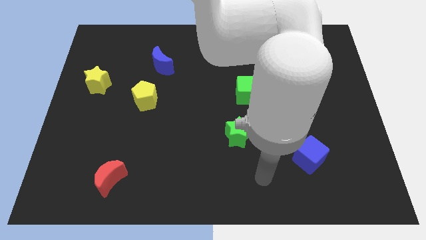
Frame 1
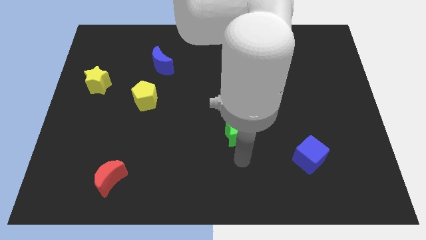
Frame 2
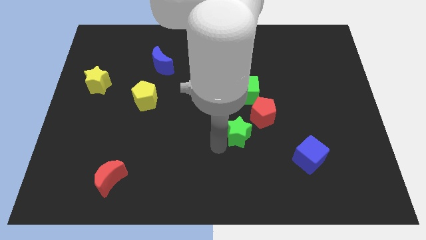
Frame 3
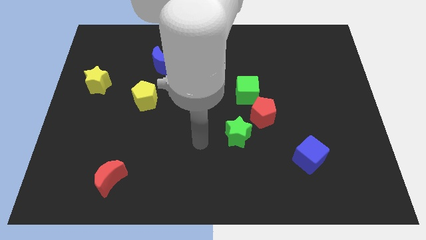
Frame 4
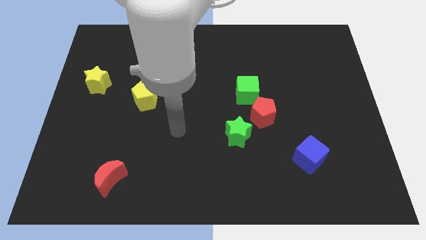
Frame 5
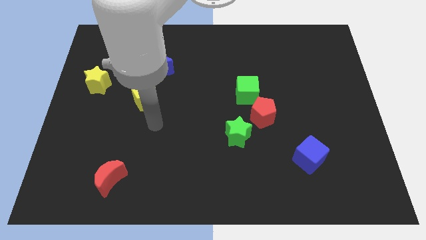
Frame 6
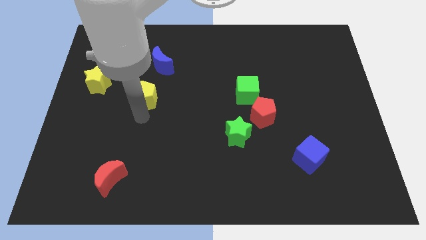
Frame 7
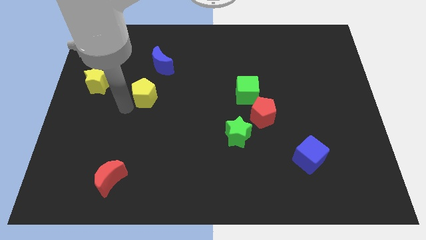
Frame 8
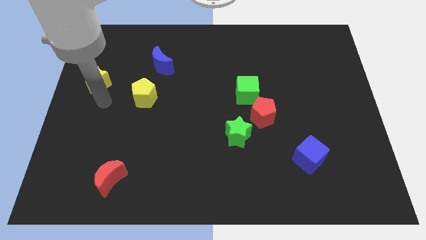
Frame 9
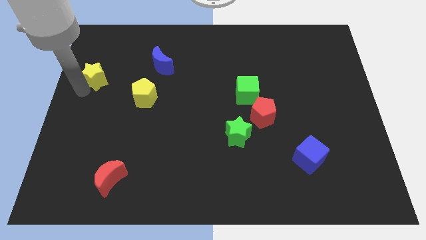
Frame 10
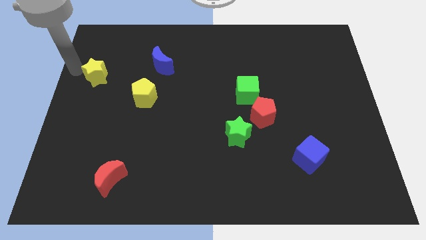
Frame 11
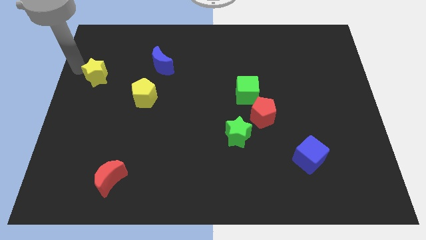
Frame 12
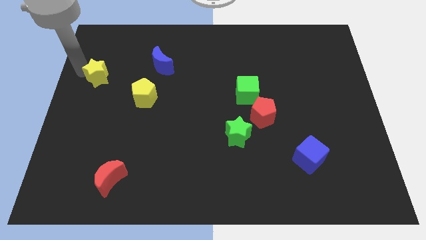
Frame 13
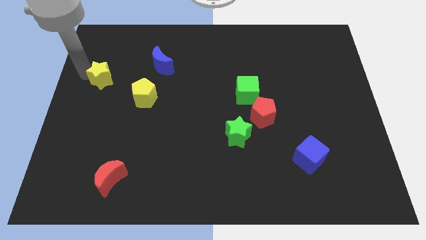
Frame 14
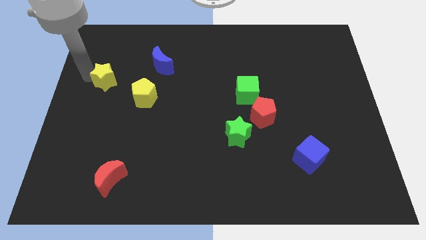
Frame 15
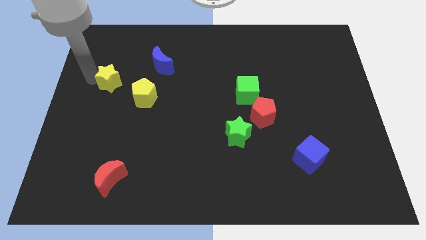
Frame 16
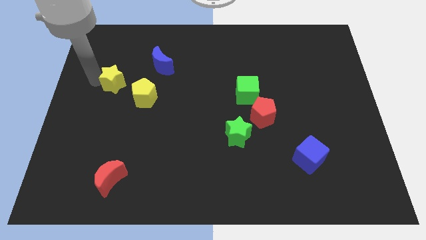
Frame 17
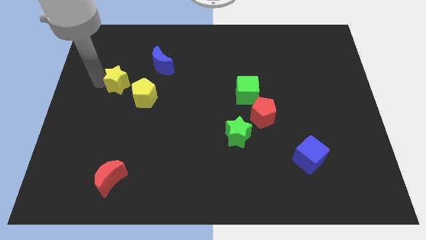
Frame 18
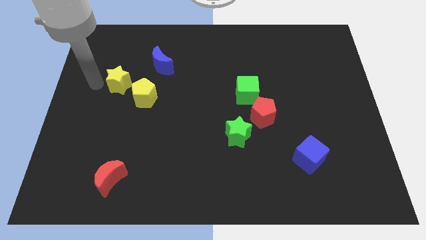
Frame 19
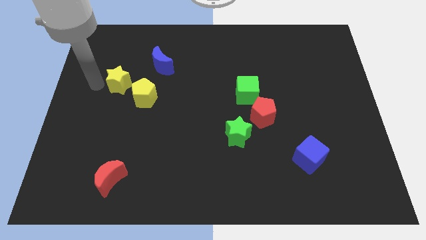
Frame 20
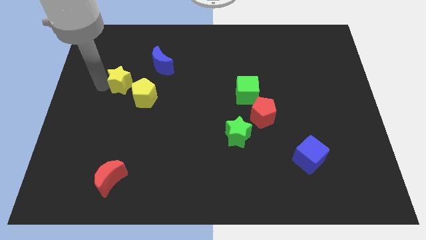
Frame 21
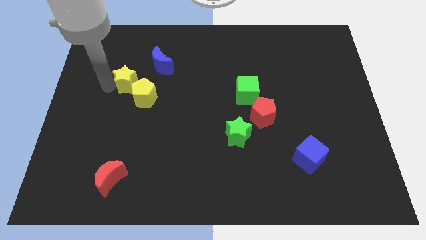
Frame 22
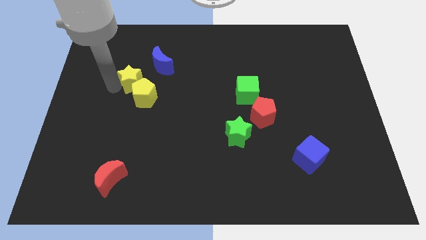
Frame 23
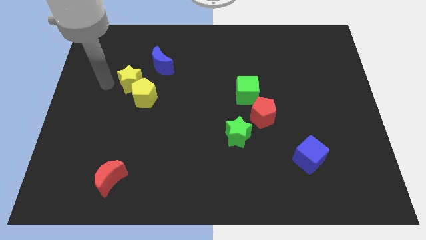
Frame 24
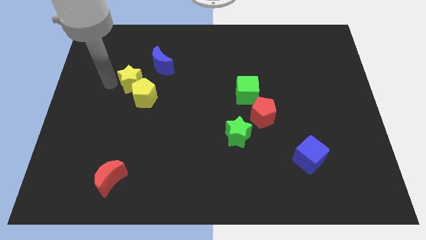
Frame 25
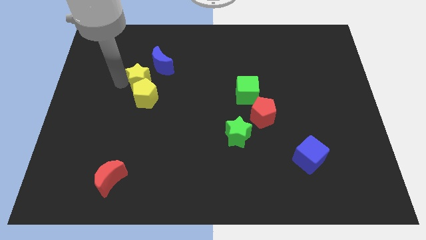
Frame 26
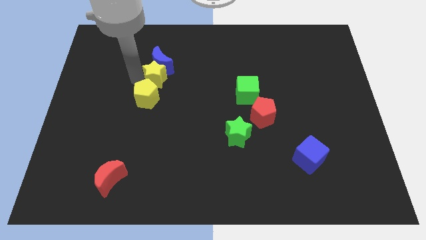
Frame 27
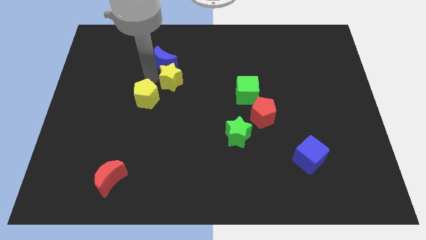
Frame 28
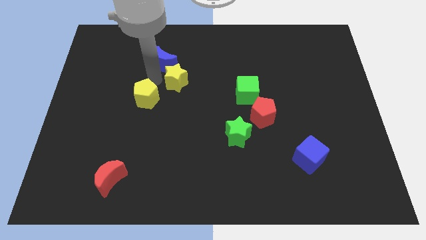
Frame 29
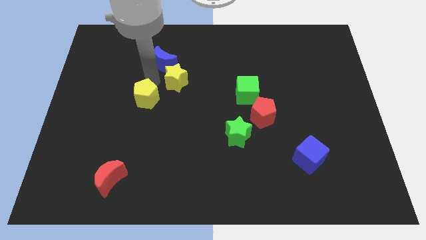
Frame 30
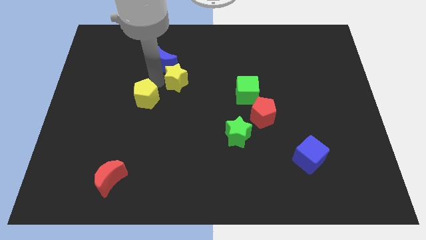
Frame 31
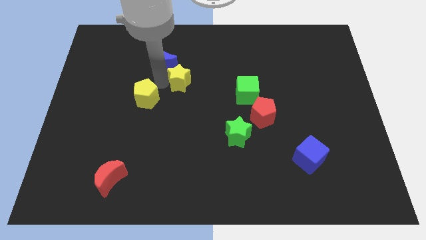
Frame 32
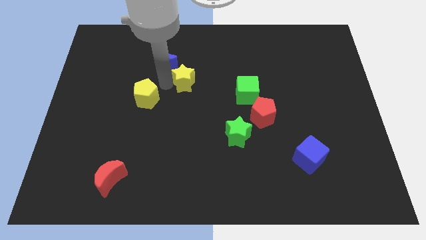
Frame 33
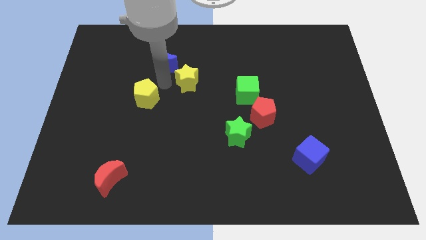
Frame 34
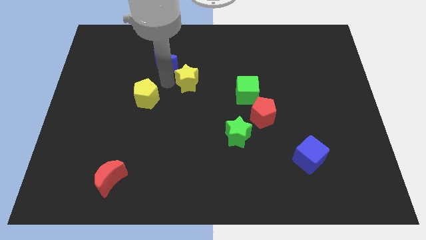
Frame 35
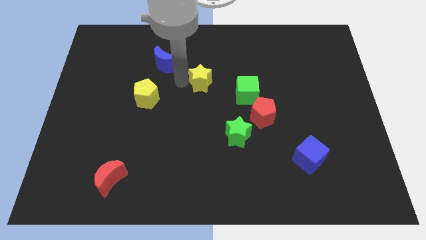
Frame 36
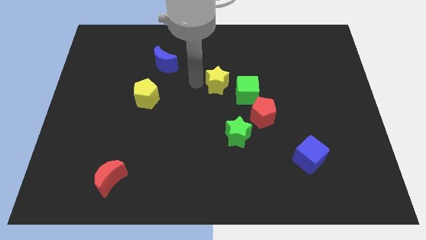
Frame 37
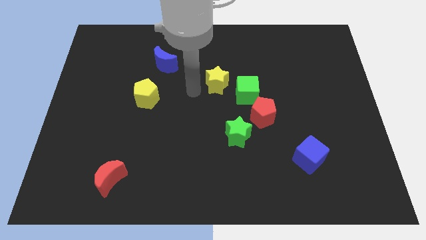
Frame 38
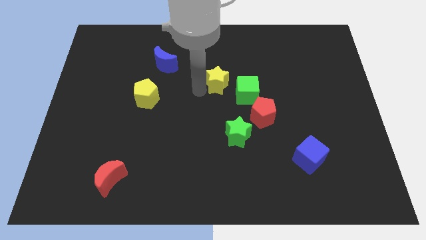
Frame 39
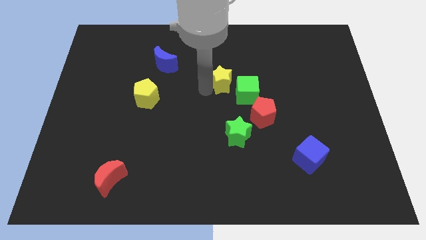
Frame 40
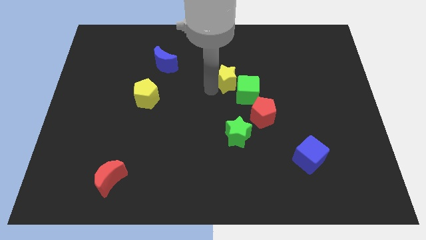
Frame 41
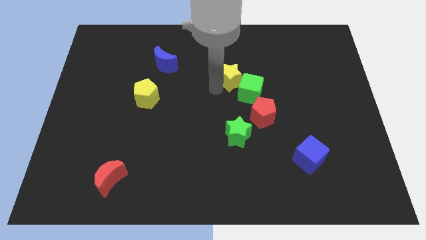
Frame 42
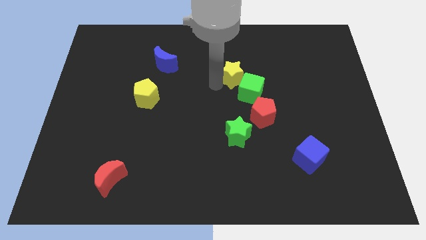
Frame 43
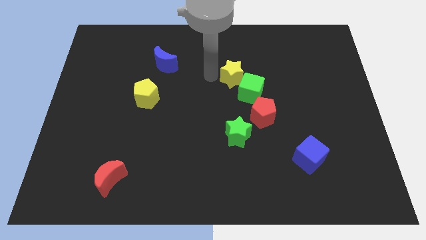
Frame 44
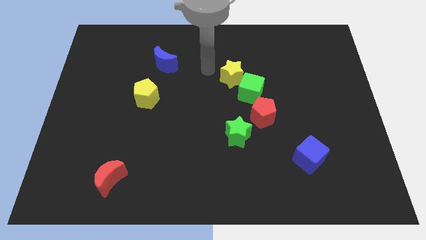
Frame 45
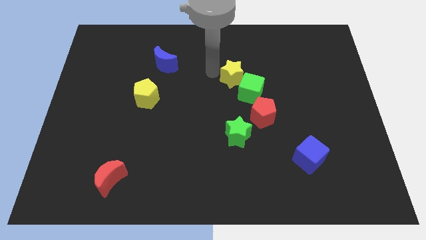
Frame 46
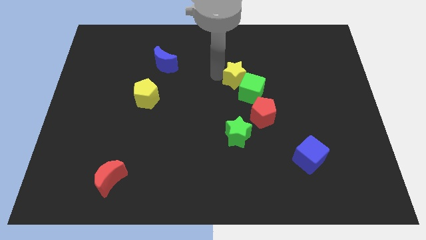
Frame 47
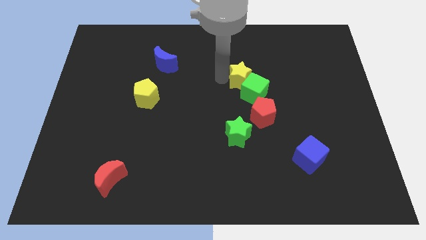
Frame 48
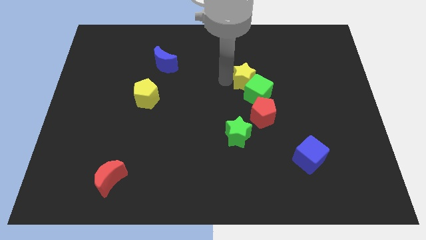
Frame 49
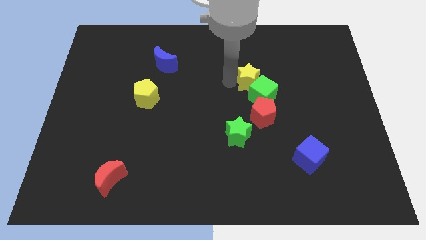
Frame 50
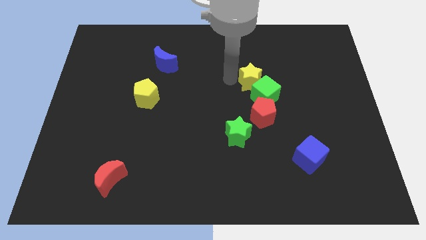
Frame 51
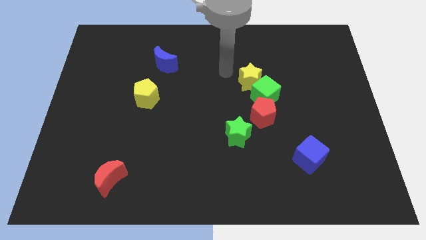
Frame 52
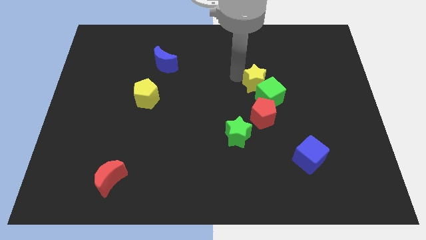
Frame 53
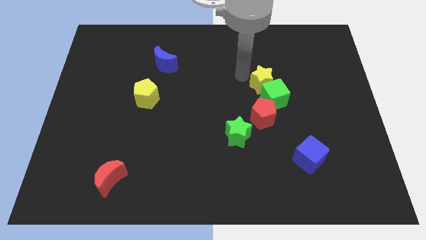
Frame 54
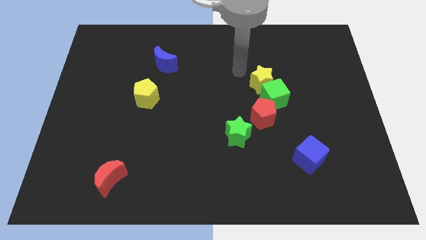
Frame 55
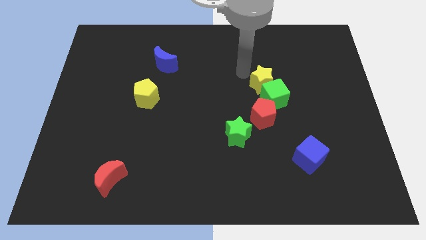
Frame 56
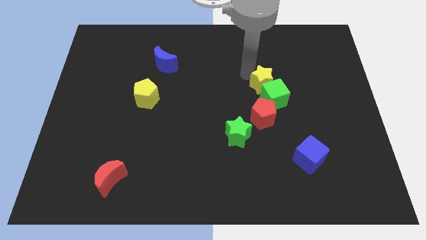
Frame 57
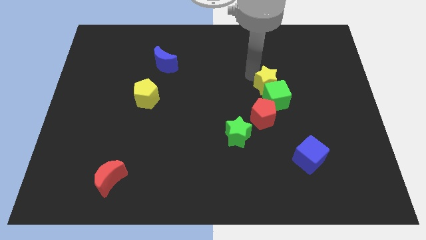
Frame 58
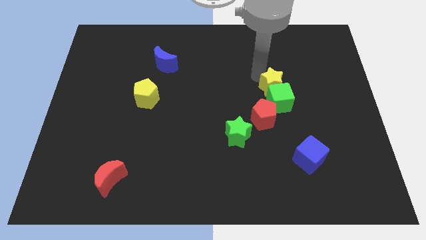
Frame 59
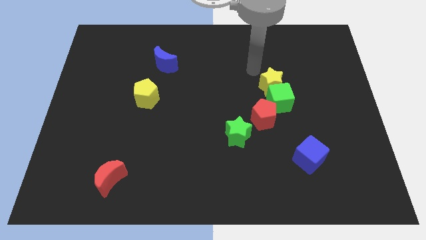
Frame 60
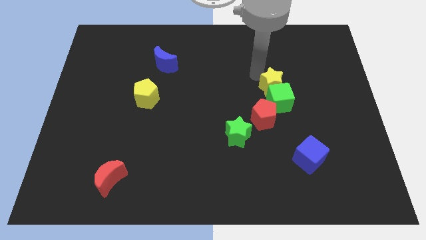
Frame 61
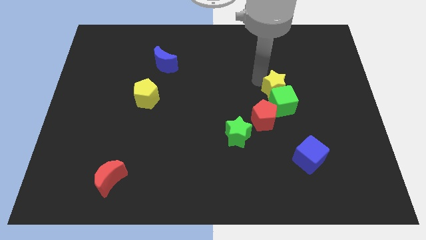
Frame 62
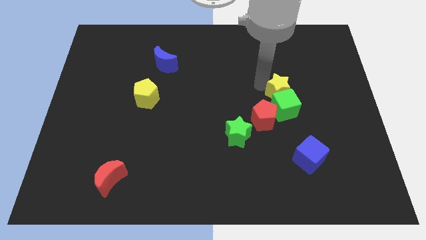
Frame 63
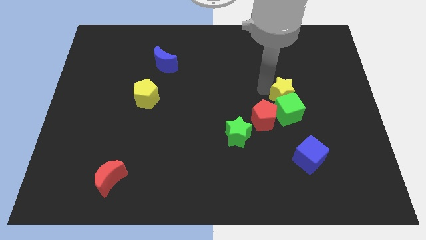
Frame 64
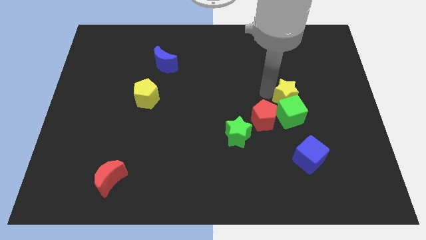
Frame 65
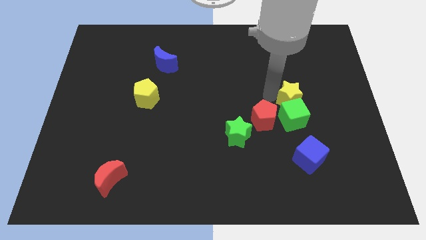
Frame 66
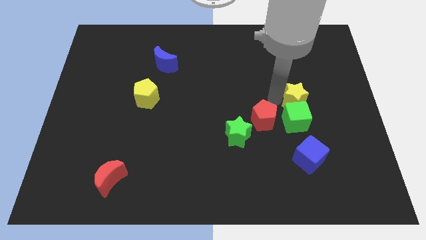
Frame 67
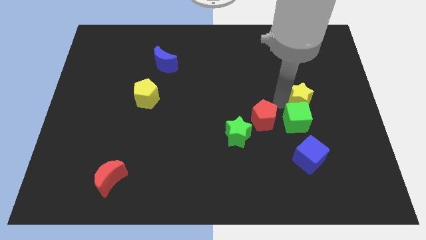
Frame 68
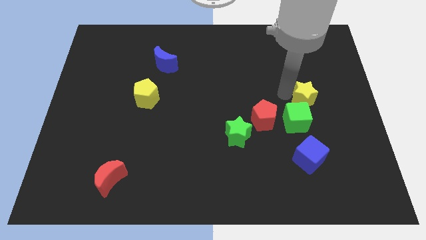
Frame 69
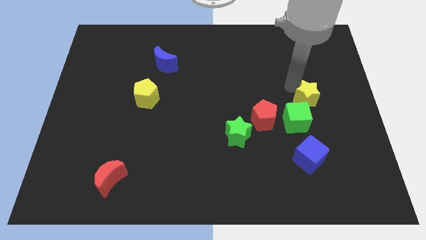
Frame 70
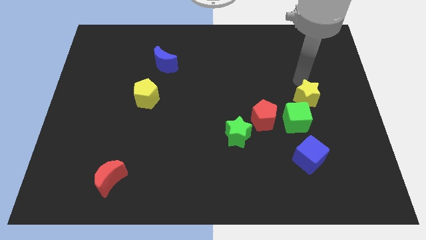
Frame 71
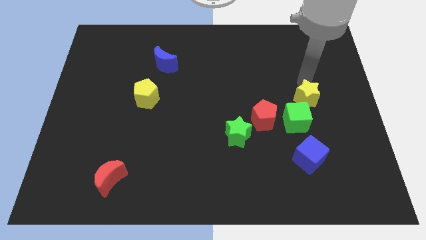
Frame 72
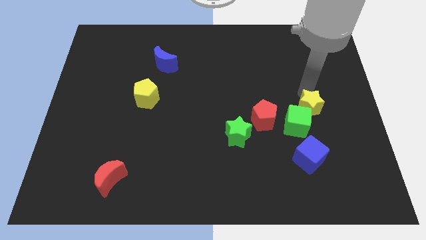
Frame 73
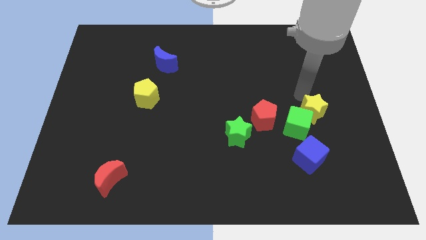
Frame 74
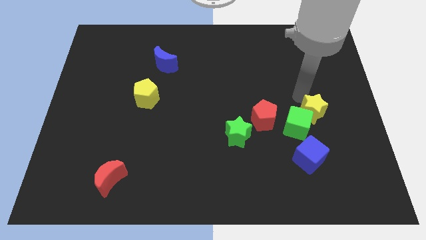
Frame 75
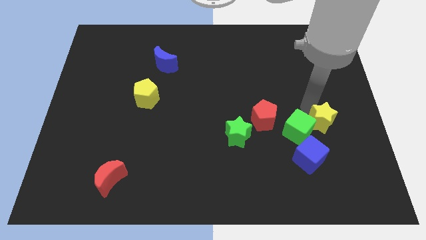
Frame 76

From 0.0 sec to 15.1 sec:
push the yellow star to the top right side of the blue cube
